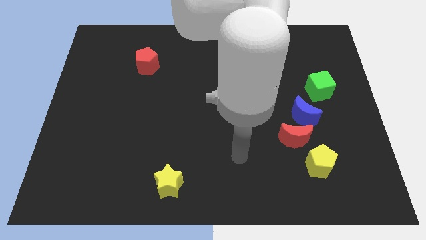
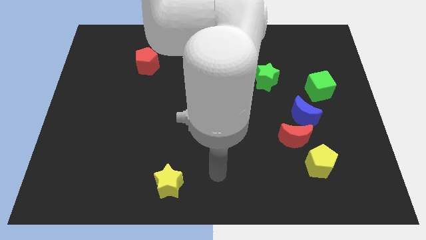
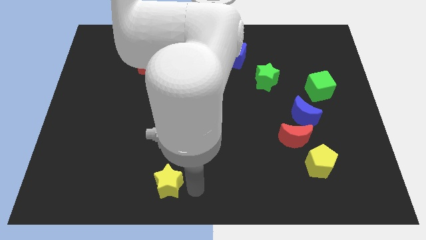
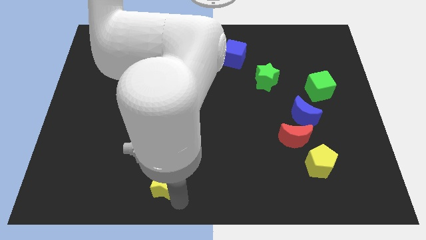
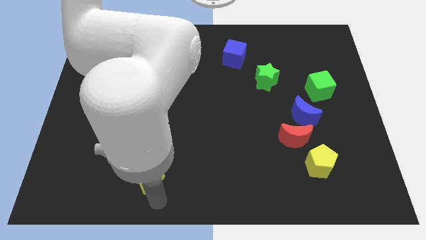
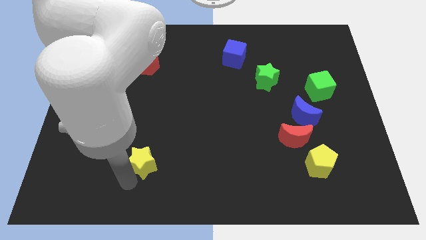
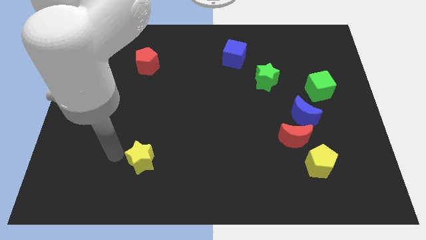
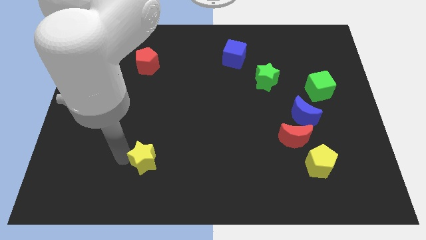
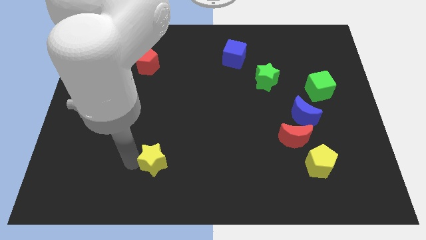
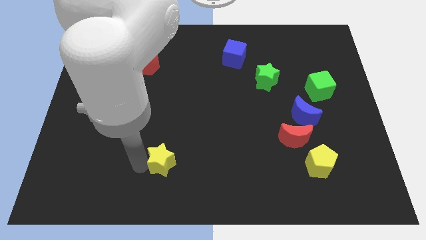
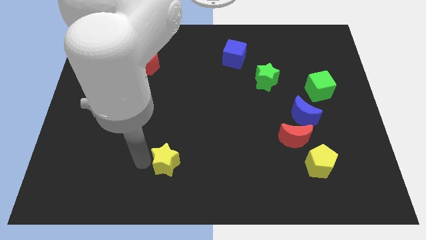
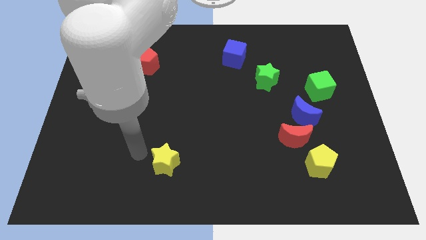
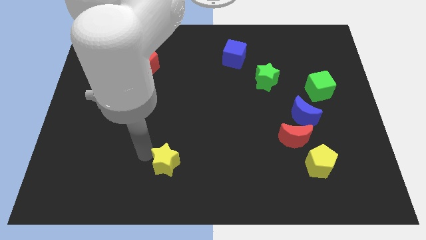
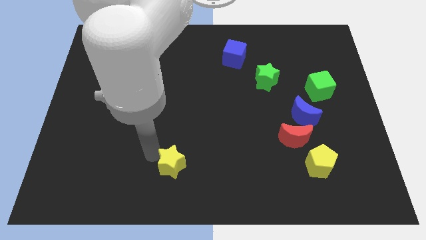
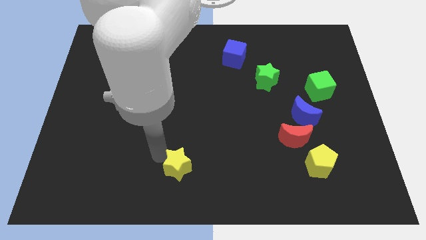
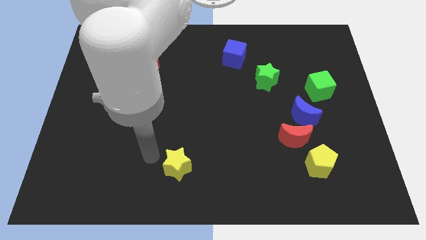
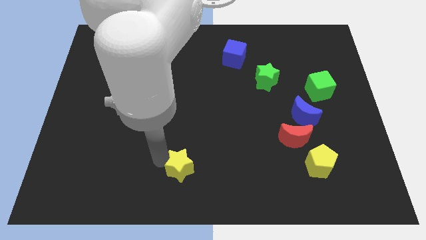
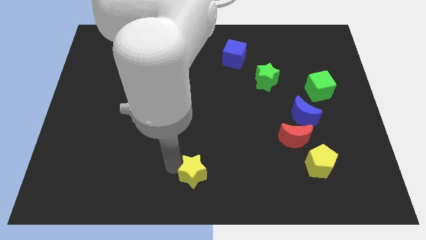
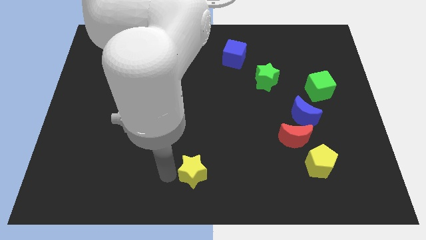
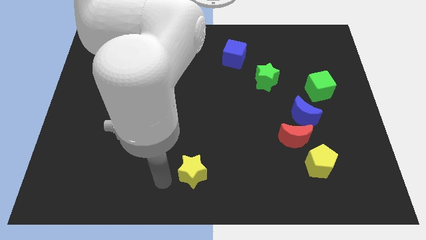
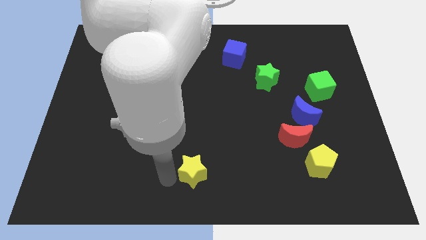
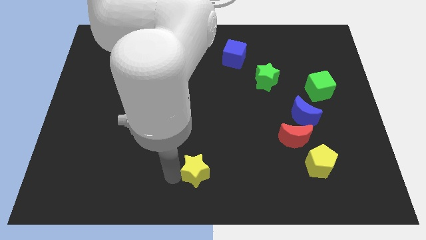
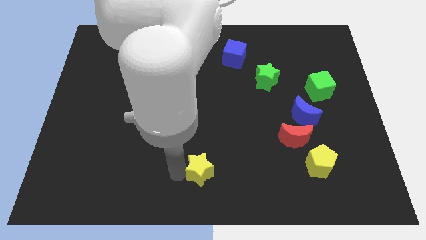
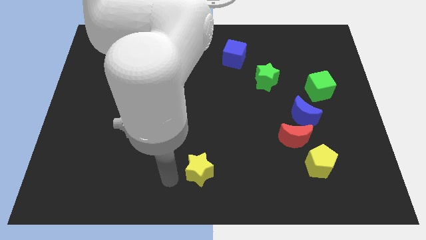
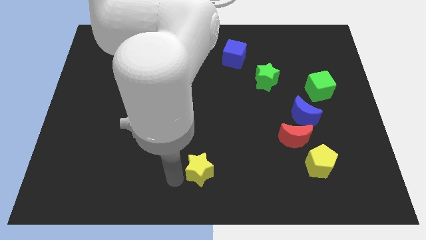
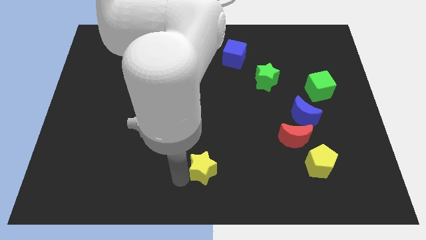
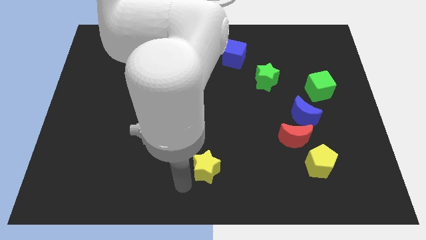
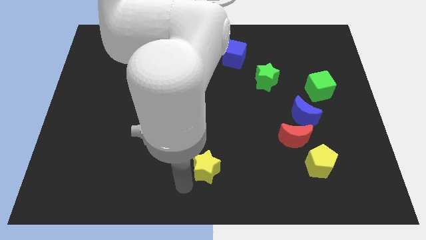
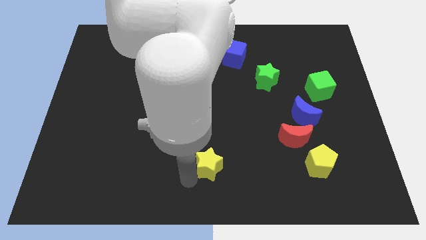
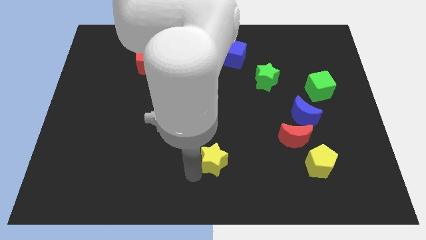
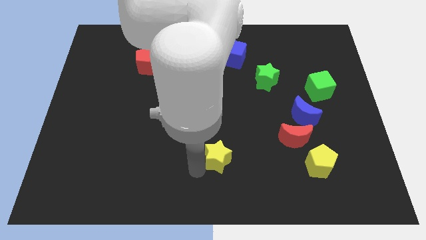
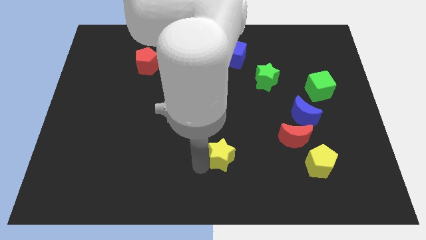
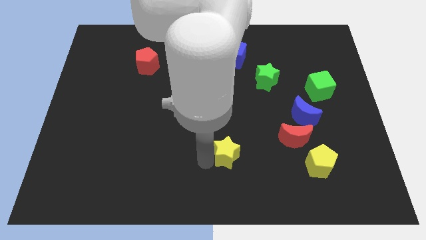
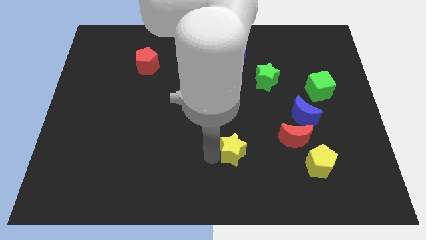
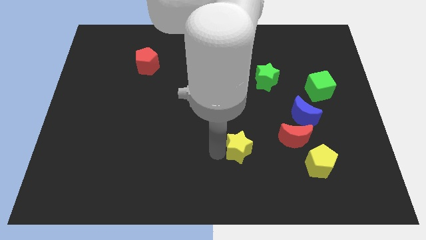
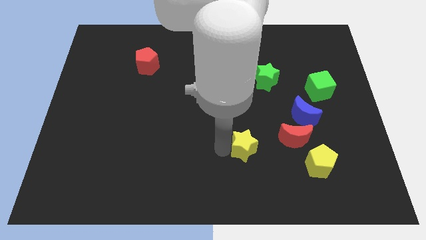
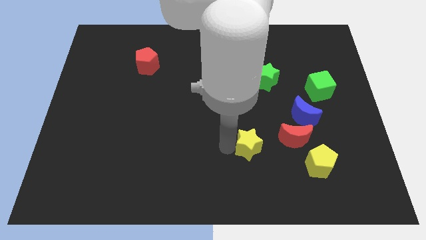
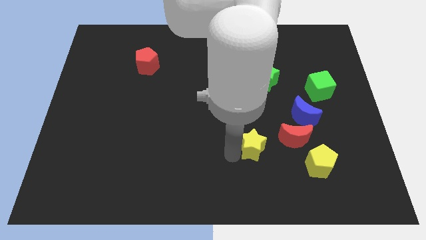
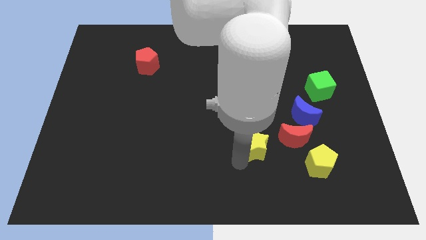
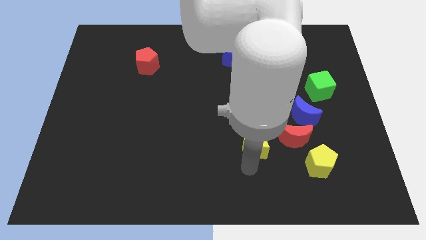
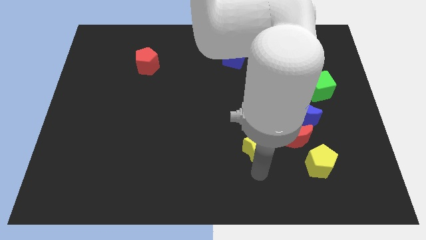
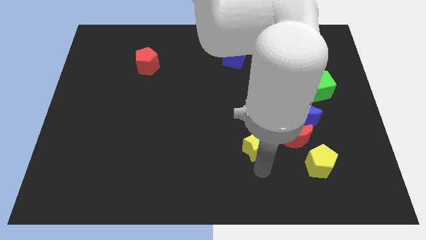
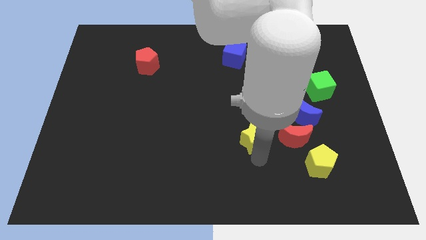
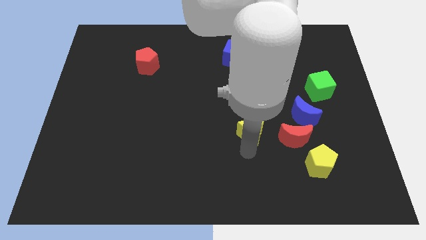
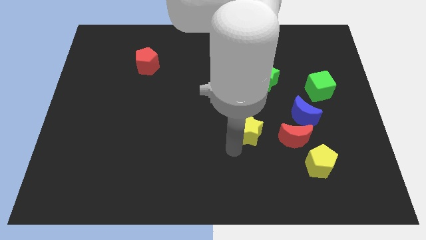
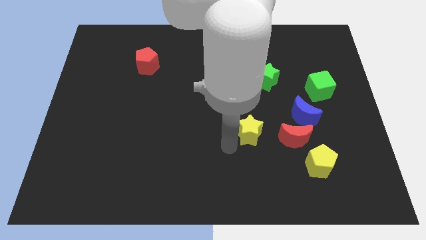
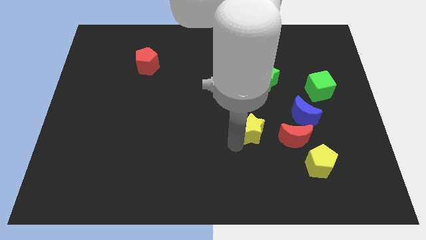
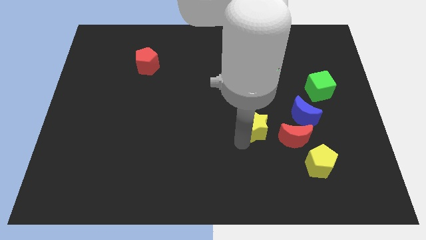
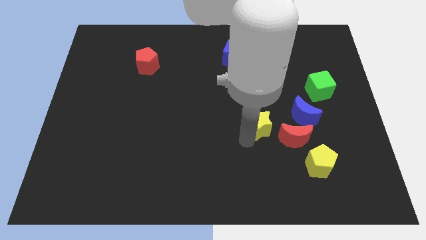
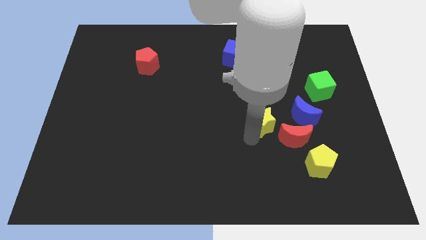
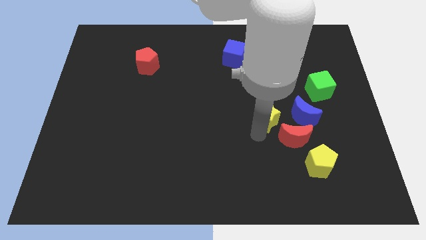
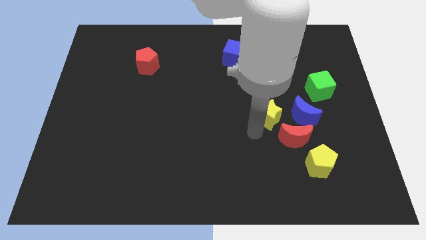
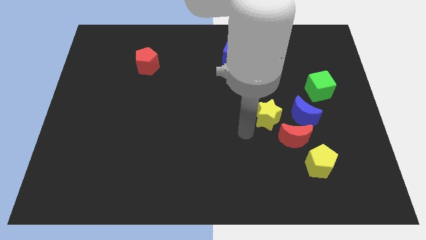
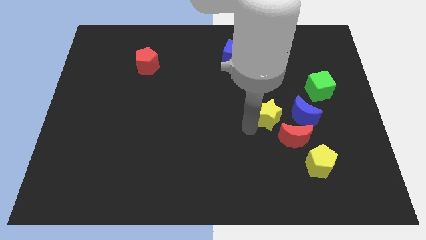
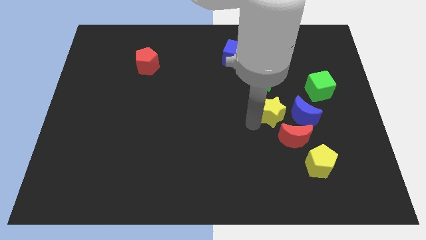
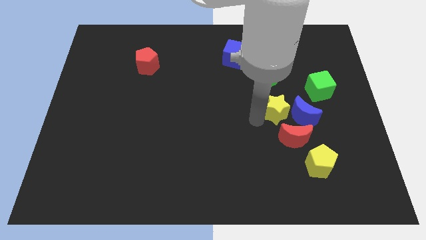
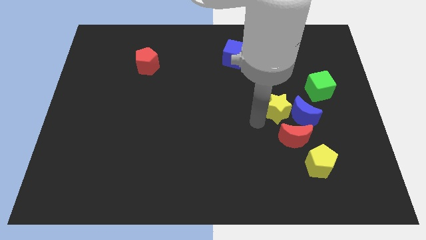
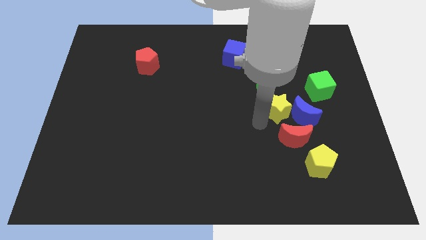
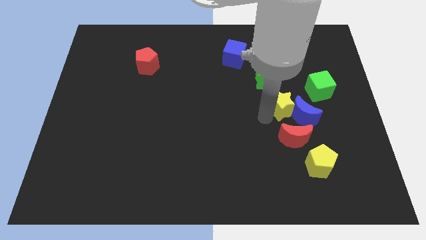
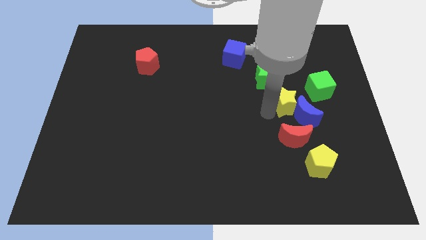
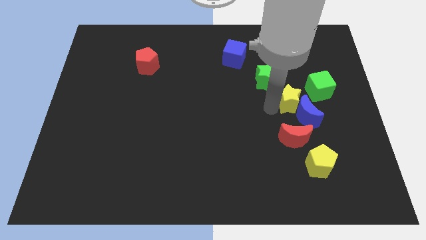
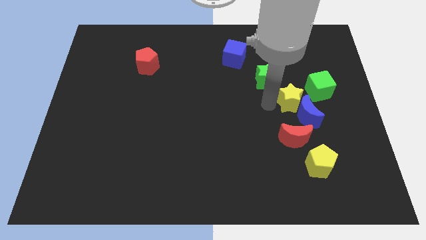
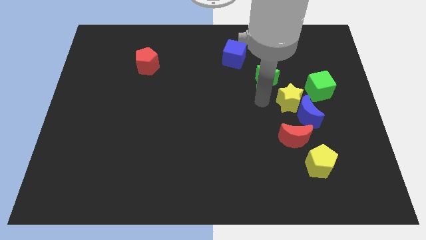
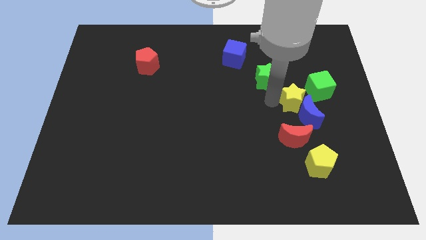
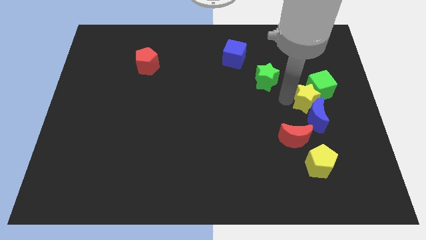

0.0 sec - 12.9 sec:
slide the yellow star to the bottom of the green cube

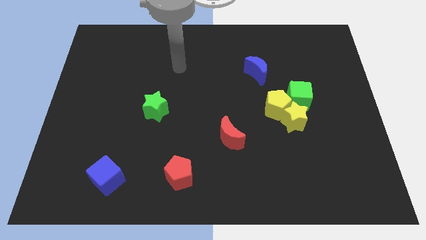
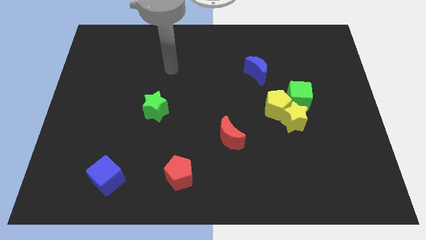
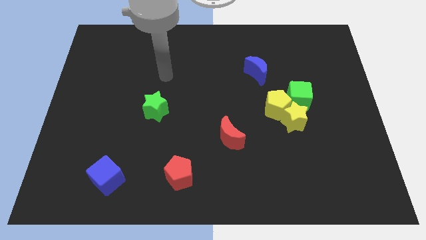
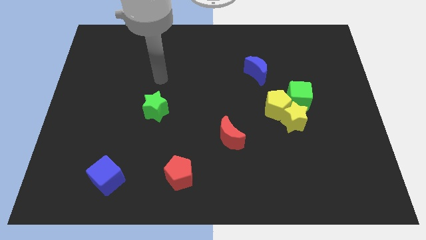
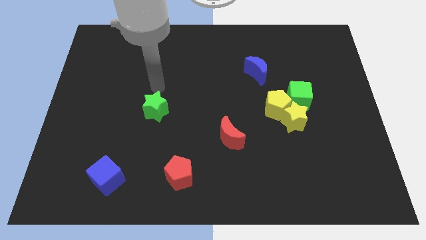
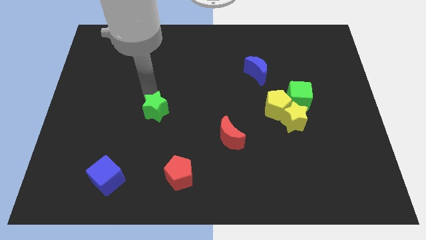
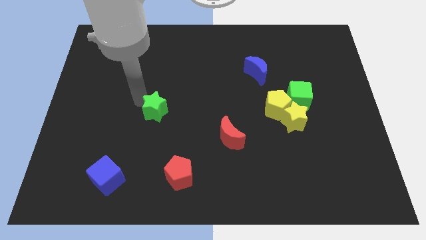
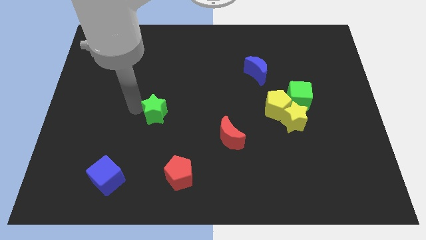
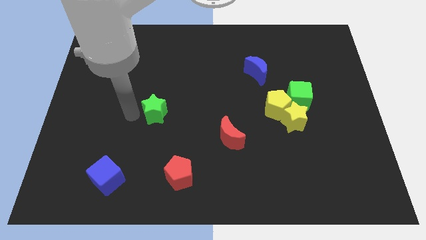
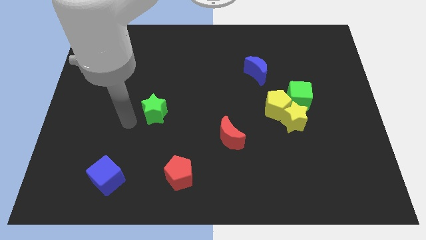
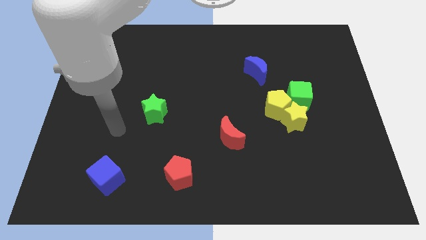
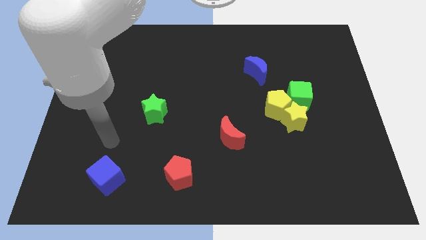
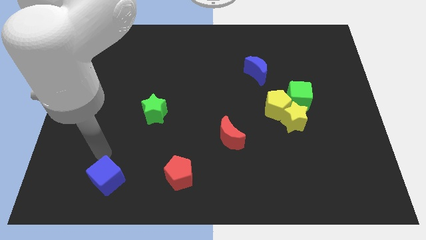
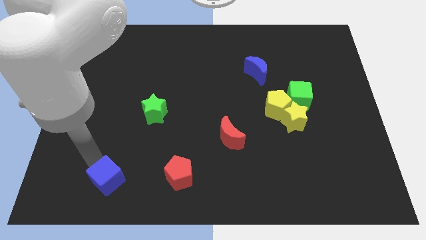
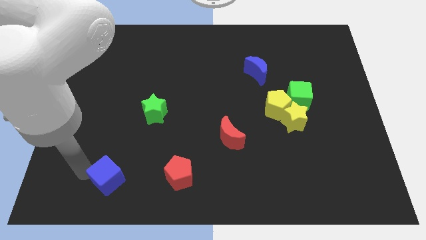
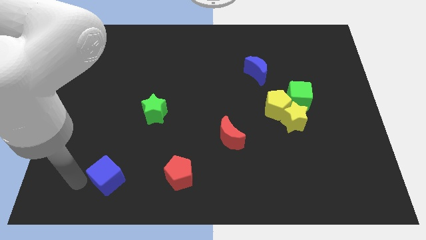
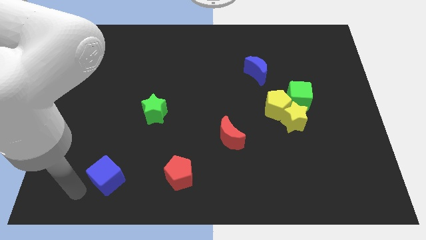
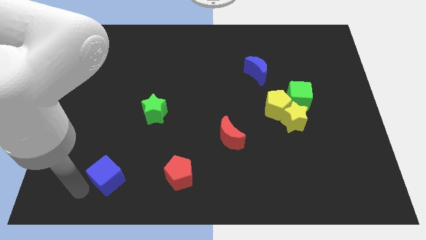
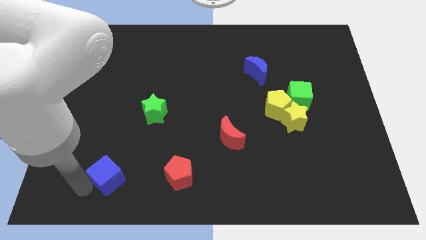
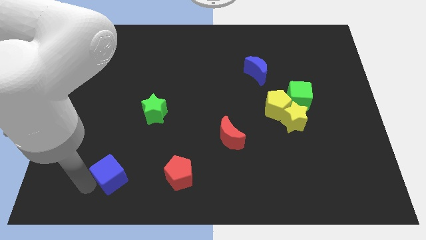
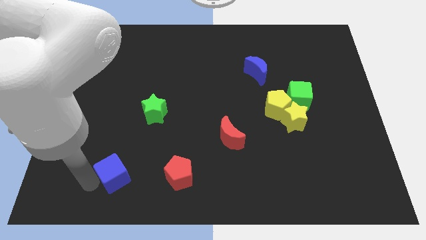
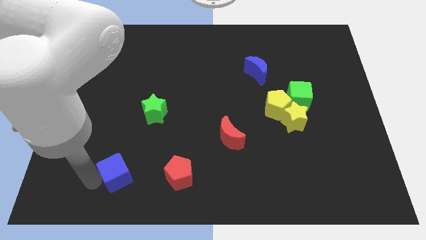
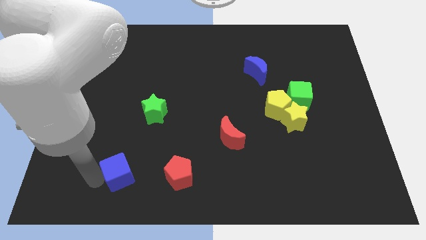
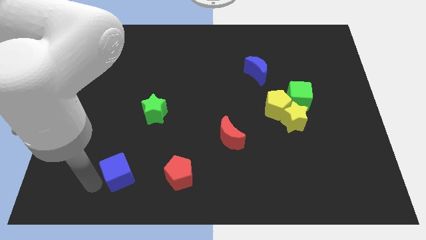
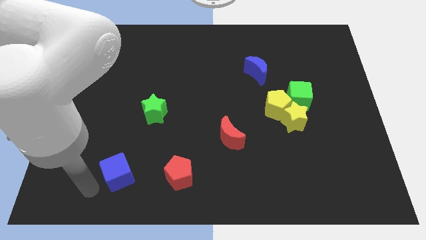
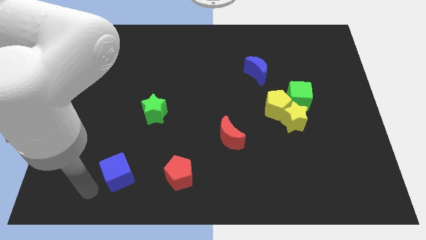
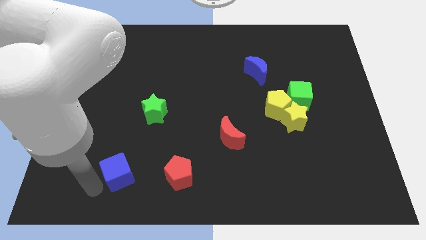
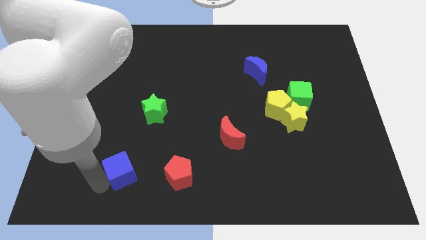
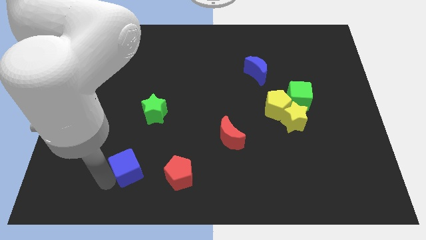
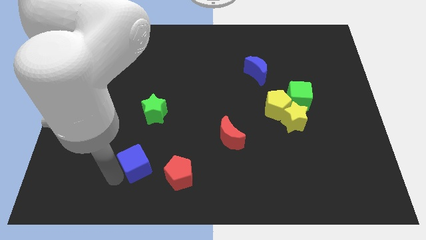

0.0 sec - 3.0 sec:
move the blue cube to the top left side of the red pentagon
